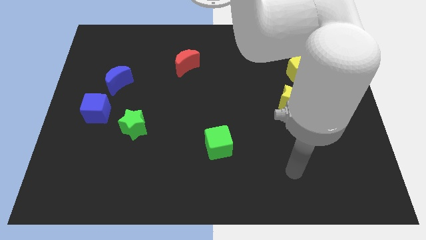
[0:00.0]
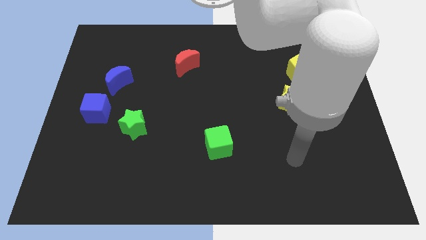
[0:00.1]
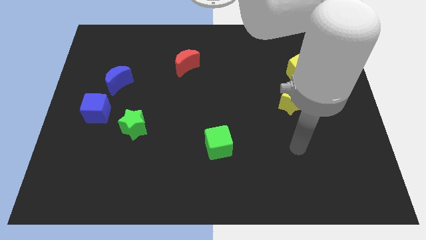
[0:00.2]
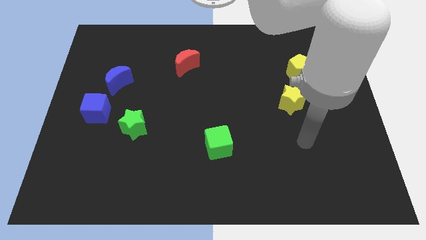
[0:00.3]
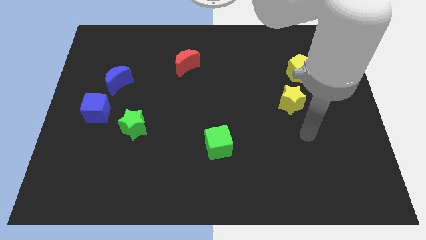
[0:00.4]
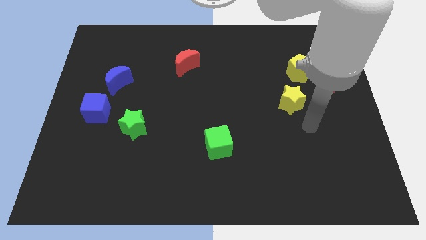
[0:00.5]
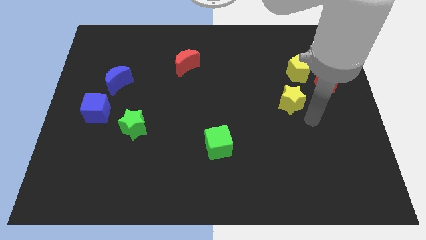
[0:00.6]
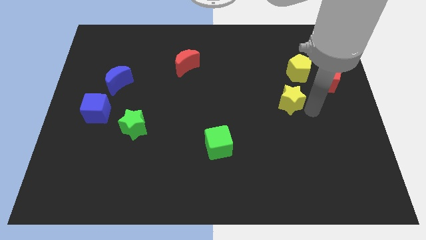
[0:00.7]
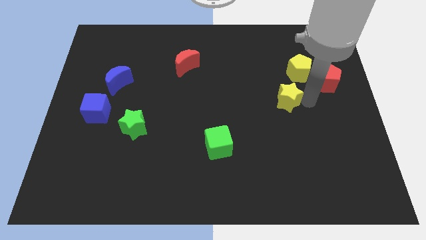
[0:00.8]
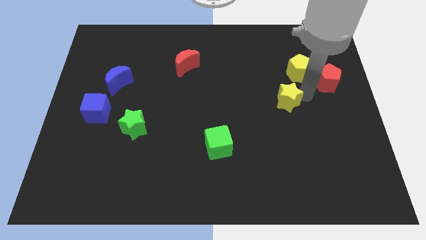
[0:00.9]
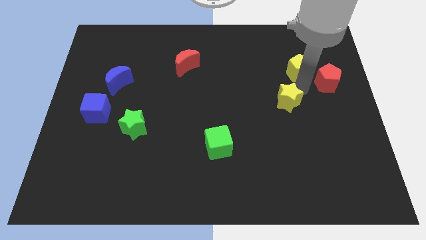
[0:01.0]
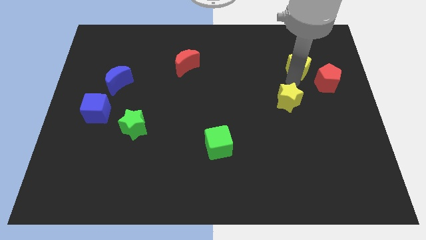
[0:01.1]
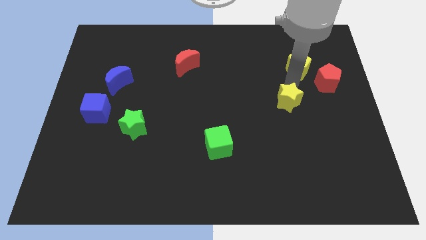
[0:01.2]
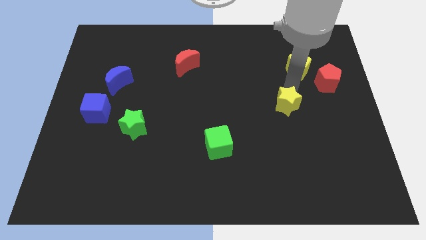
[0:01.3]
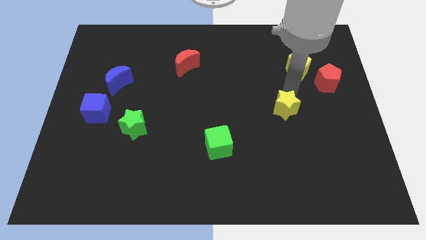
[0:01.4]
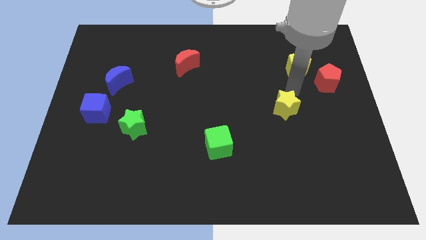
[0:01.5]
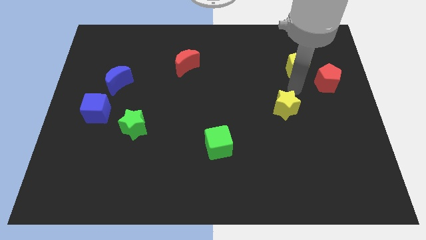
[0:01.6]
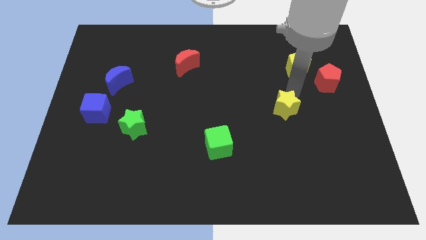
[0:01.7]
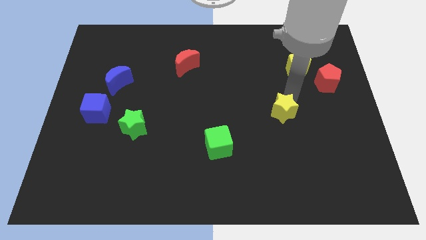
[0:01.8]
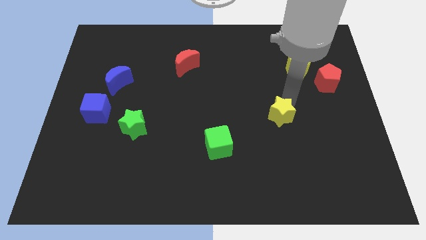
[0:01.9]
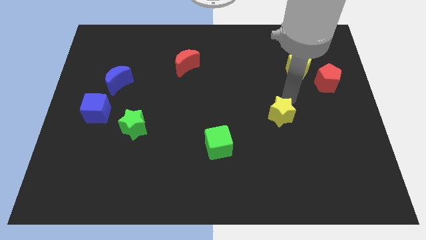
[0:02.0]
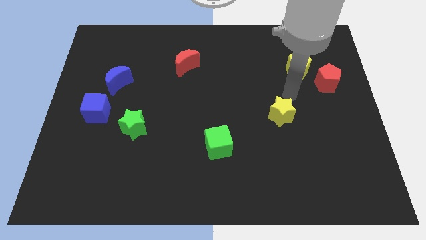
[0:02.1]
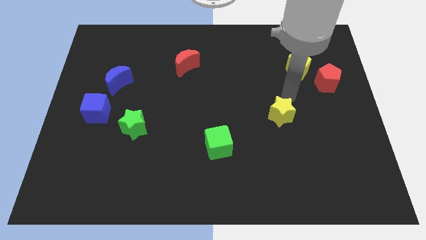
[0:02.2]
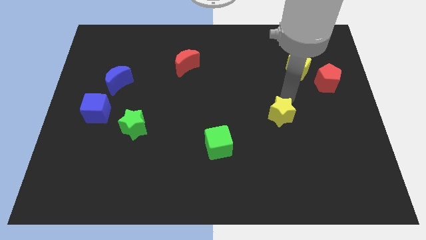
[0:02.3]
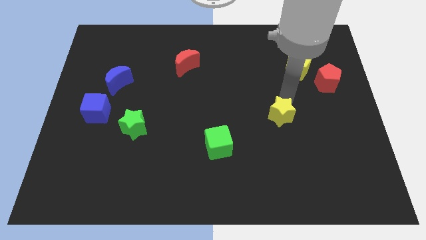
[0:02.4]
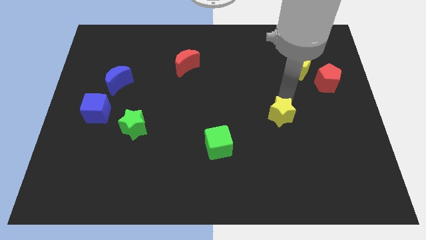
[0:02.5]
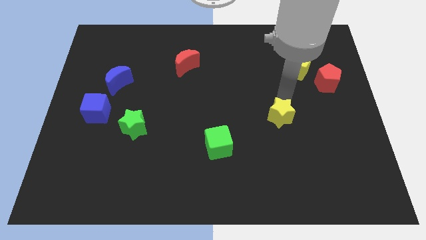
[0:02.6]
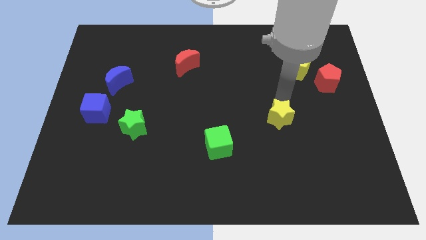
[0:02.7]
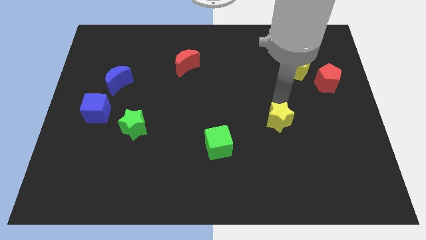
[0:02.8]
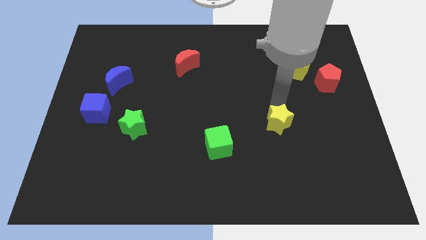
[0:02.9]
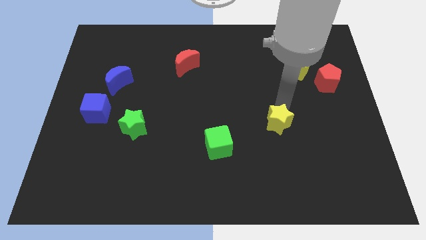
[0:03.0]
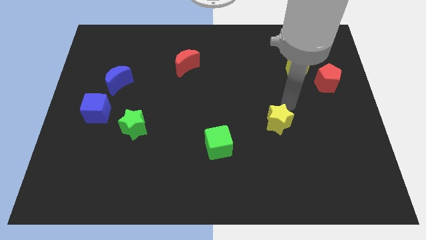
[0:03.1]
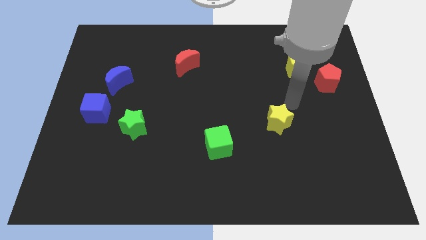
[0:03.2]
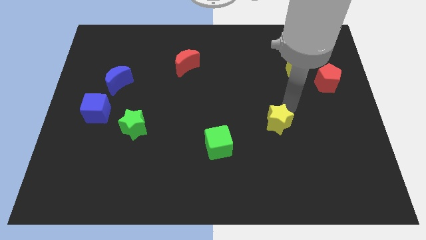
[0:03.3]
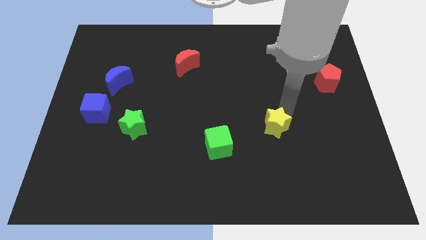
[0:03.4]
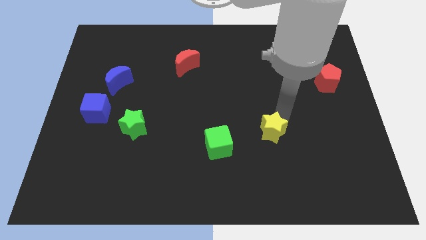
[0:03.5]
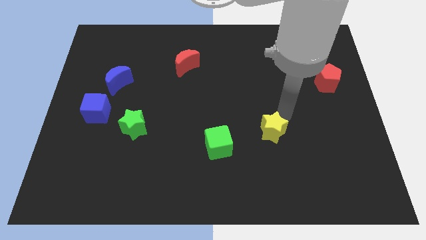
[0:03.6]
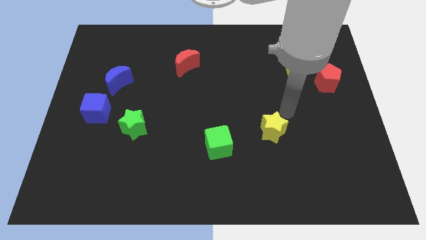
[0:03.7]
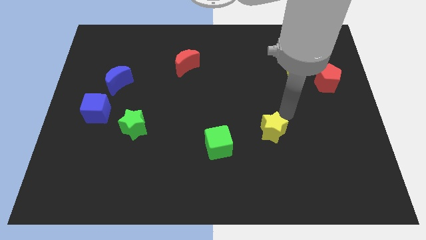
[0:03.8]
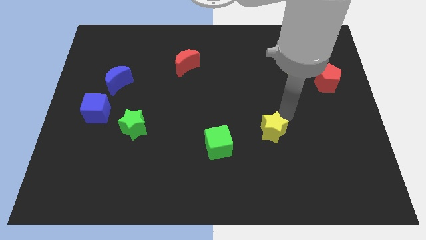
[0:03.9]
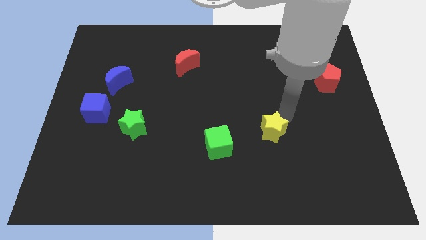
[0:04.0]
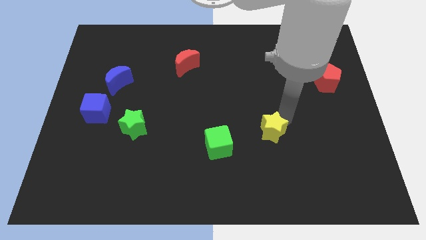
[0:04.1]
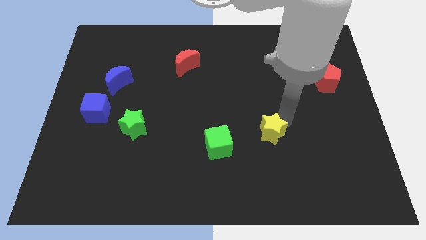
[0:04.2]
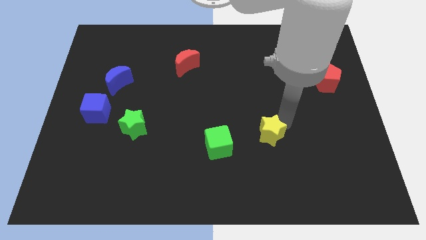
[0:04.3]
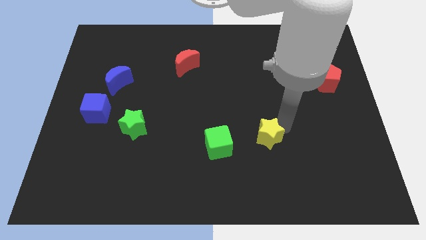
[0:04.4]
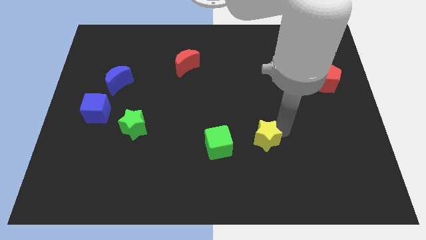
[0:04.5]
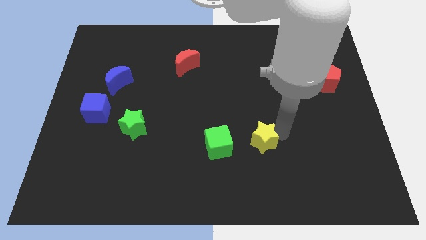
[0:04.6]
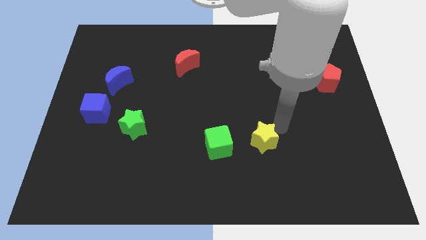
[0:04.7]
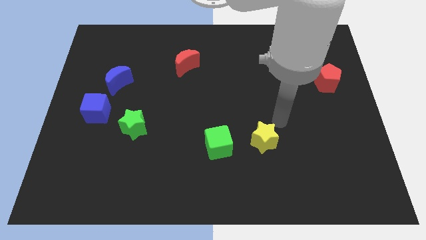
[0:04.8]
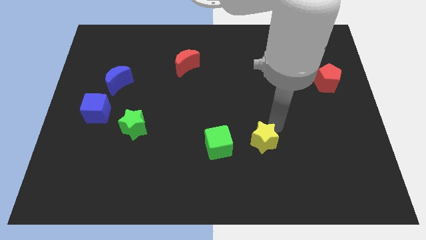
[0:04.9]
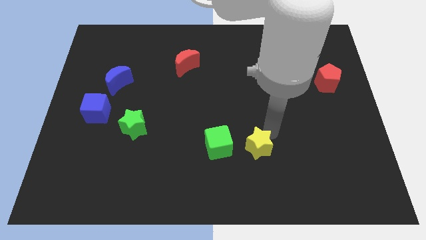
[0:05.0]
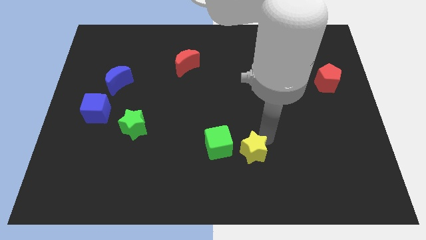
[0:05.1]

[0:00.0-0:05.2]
put the yellow star diagonally down and to the right of the green cube
